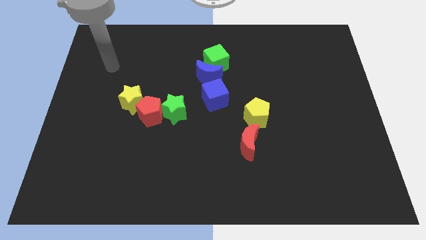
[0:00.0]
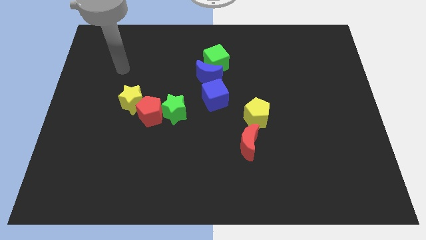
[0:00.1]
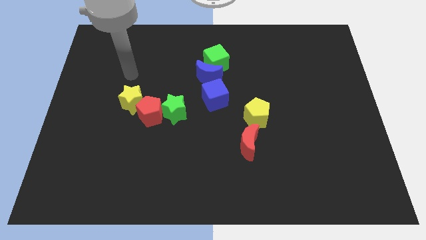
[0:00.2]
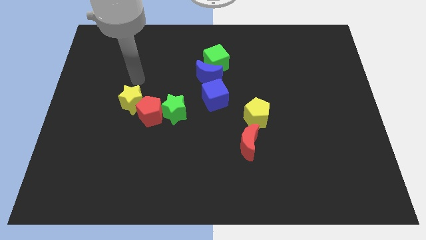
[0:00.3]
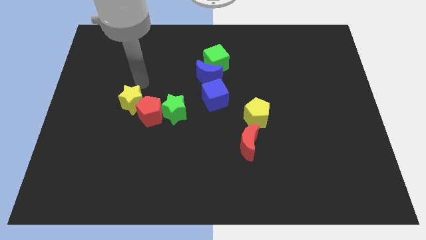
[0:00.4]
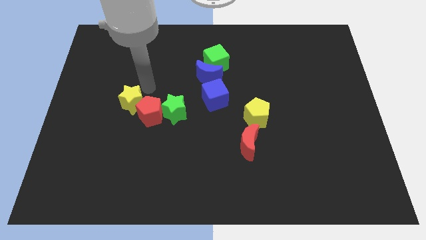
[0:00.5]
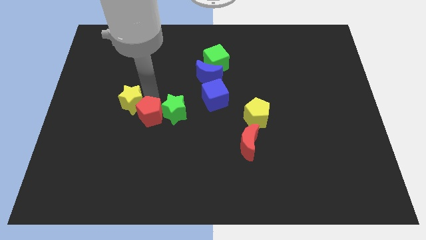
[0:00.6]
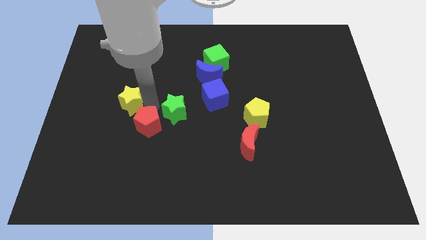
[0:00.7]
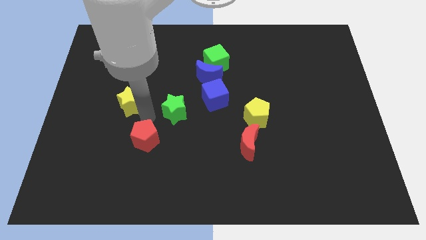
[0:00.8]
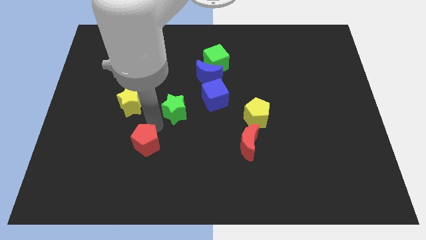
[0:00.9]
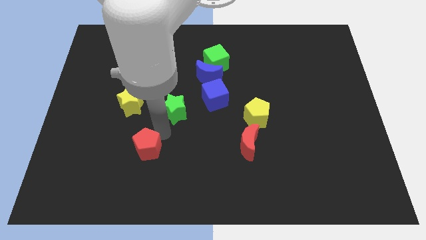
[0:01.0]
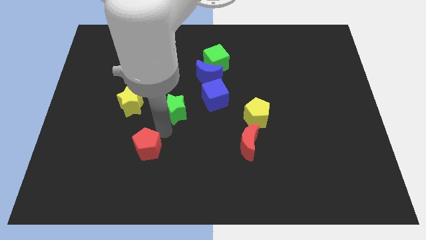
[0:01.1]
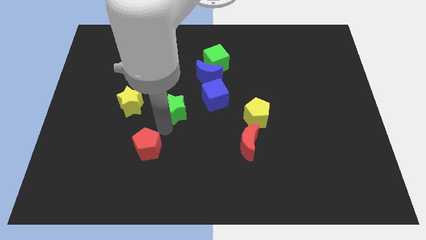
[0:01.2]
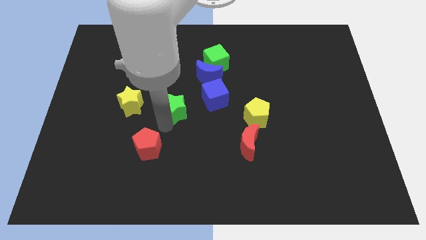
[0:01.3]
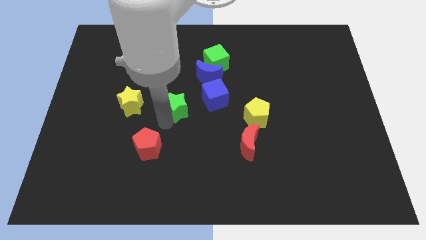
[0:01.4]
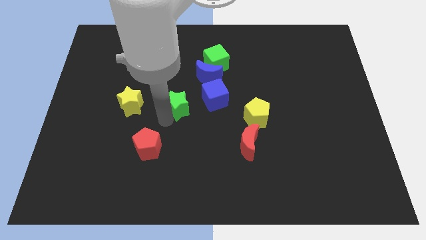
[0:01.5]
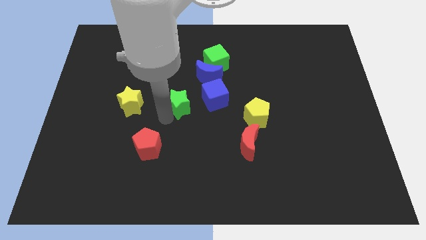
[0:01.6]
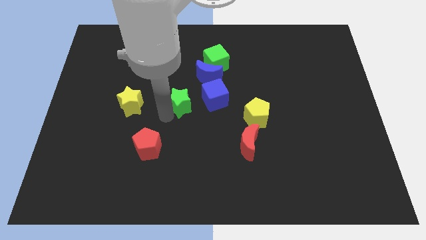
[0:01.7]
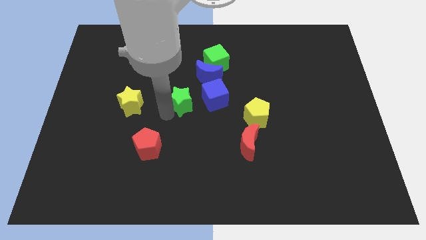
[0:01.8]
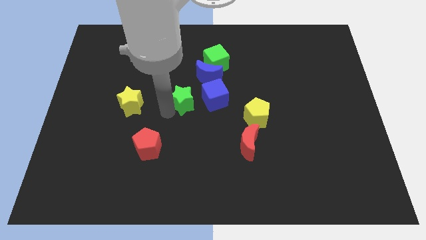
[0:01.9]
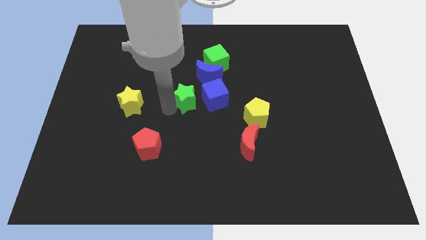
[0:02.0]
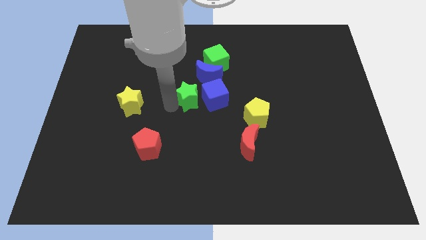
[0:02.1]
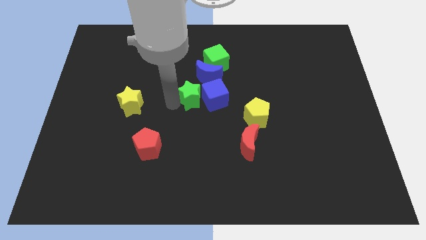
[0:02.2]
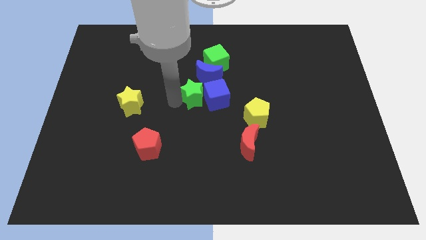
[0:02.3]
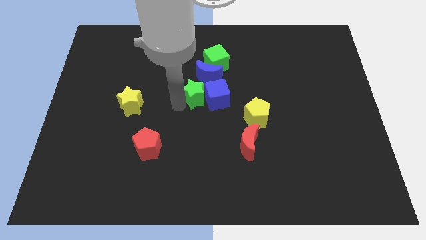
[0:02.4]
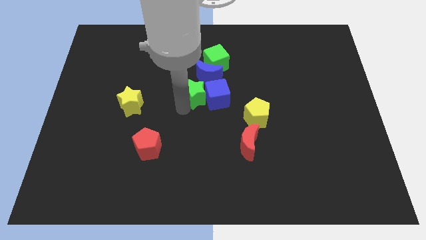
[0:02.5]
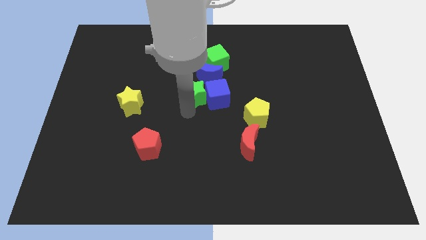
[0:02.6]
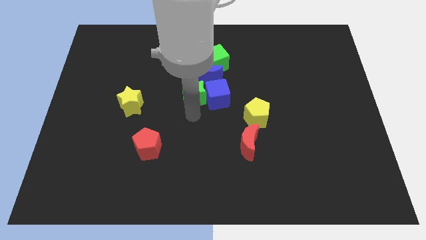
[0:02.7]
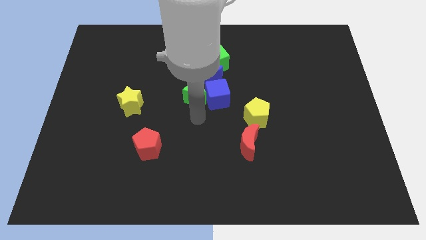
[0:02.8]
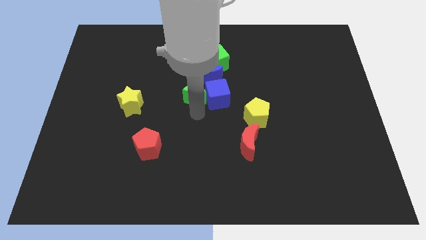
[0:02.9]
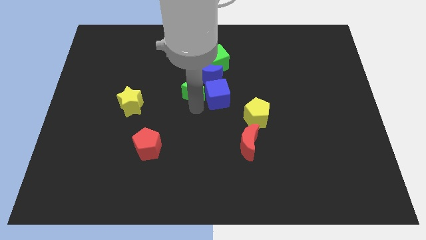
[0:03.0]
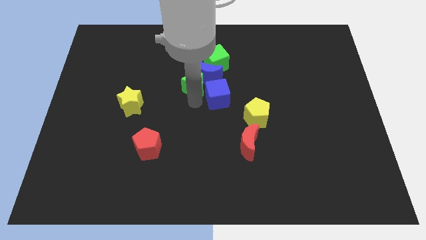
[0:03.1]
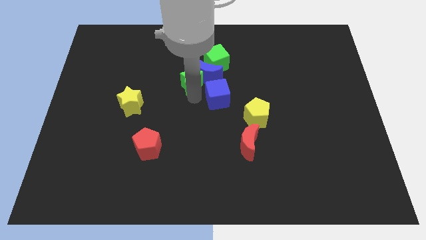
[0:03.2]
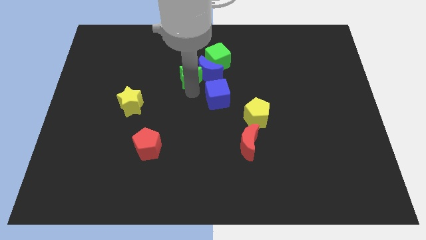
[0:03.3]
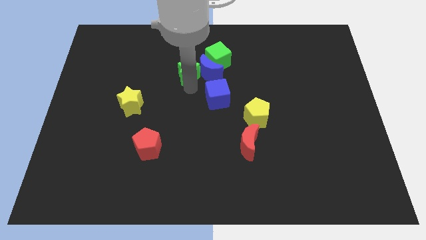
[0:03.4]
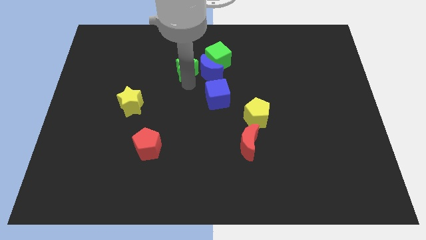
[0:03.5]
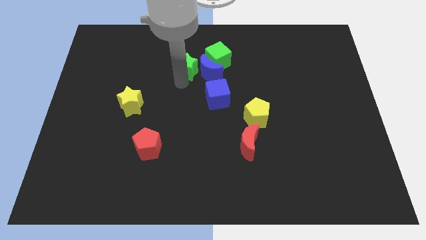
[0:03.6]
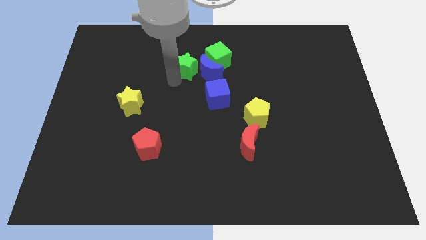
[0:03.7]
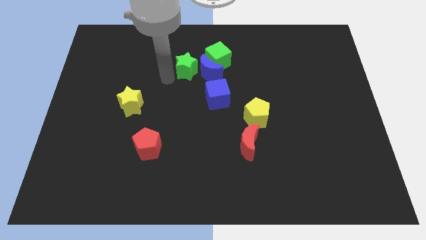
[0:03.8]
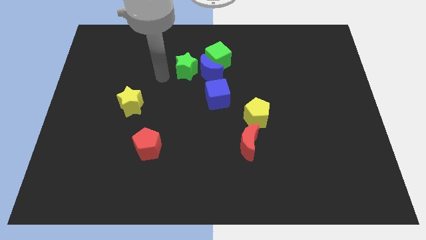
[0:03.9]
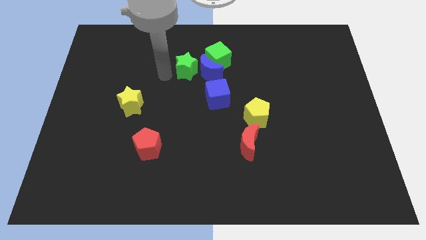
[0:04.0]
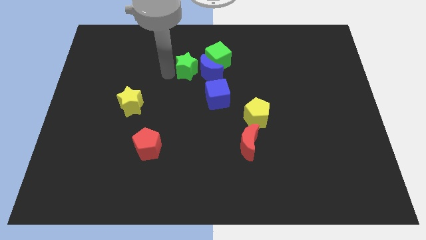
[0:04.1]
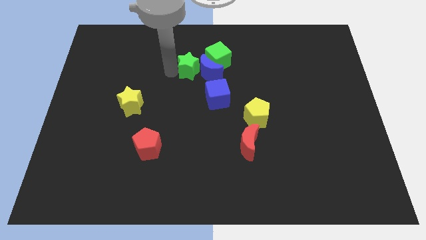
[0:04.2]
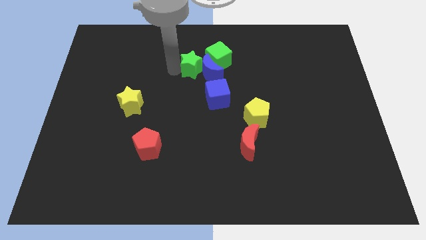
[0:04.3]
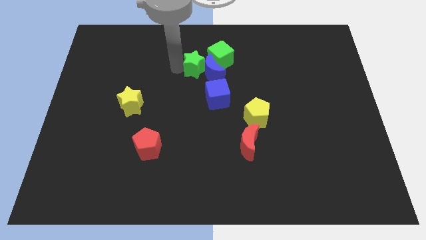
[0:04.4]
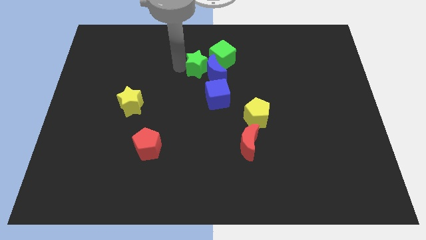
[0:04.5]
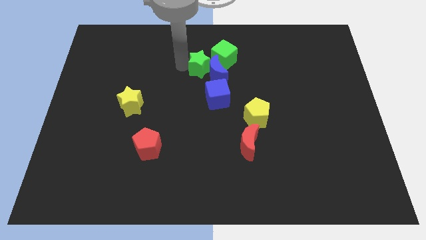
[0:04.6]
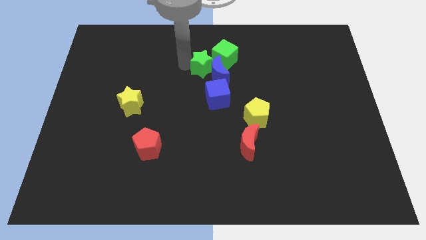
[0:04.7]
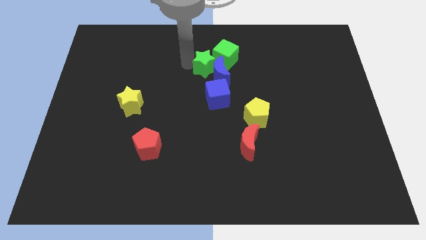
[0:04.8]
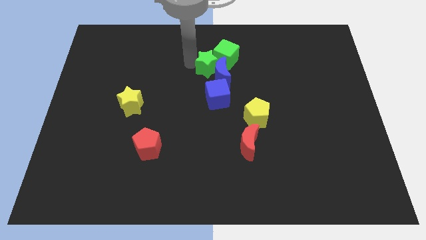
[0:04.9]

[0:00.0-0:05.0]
push the green star next to the green cube

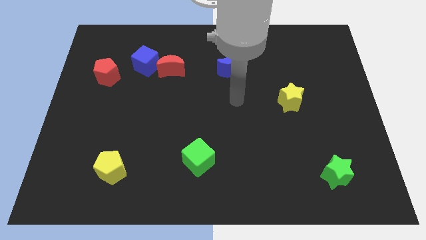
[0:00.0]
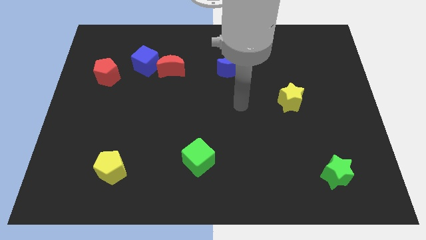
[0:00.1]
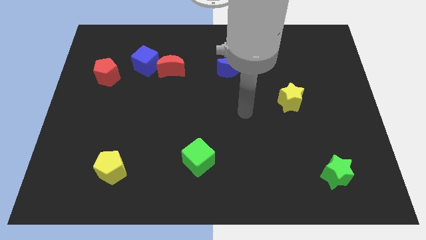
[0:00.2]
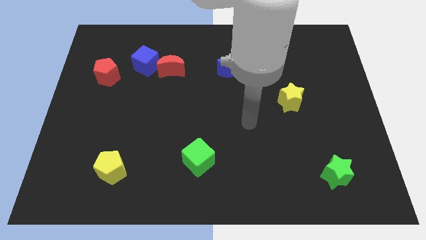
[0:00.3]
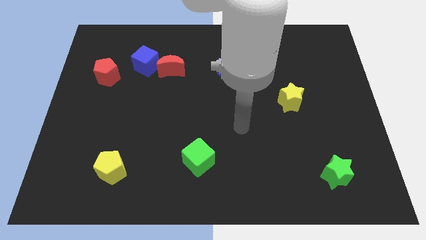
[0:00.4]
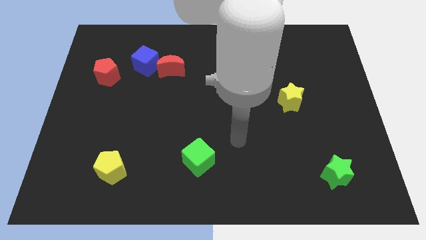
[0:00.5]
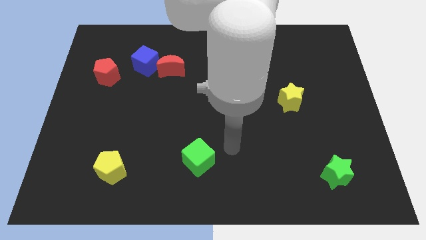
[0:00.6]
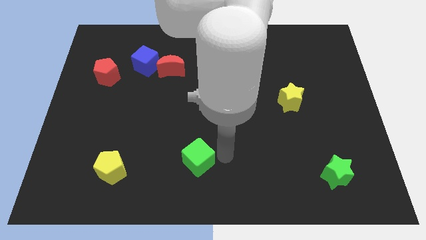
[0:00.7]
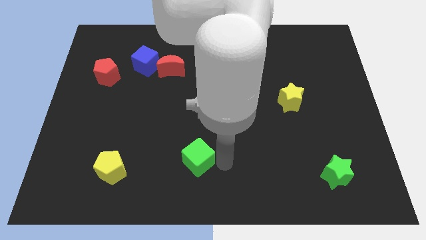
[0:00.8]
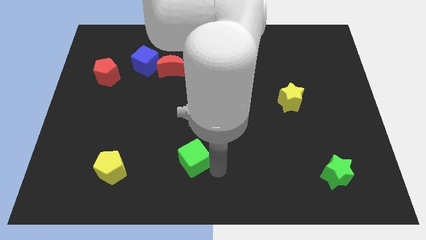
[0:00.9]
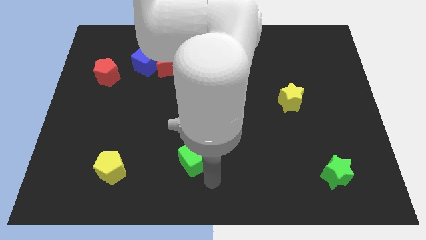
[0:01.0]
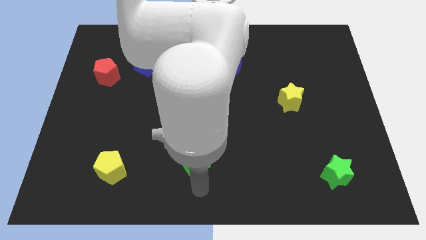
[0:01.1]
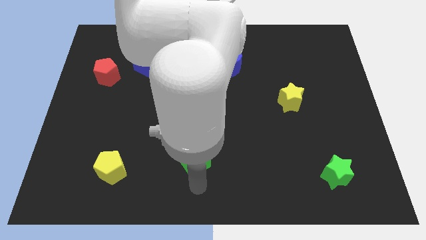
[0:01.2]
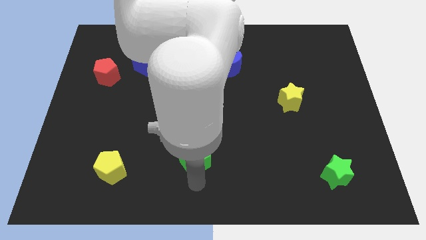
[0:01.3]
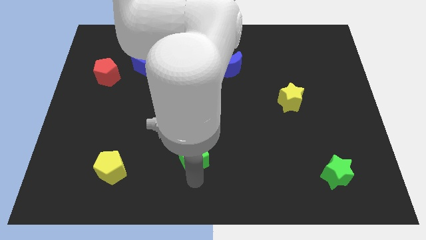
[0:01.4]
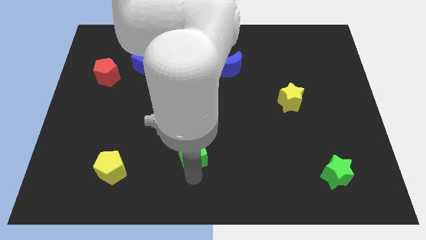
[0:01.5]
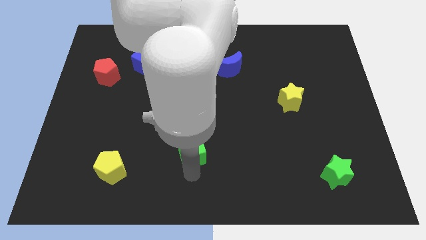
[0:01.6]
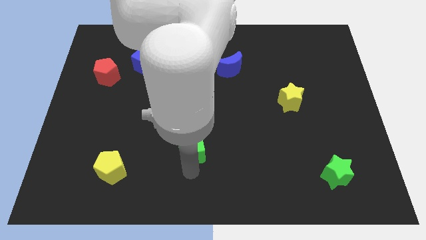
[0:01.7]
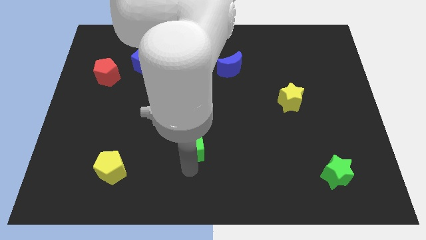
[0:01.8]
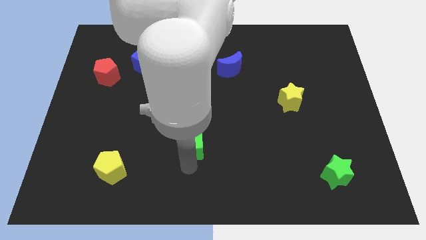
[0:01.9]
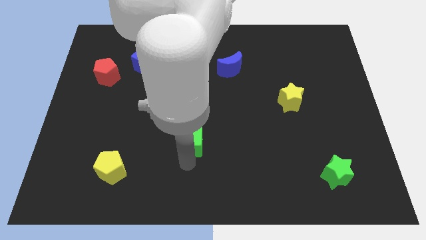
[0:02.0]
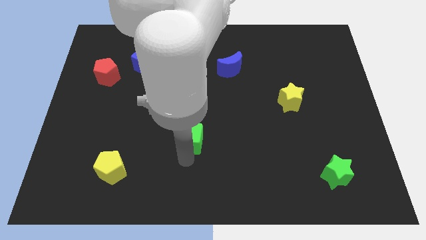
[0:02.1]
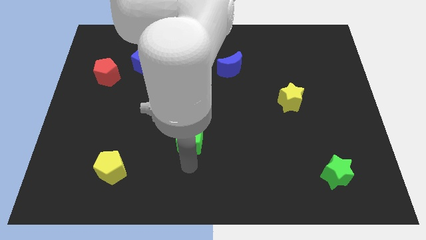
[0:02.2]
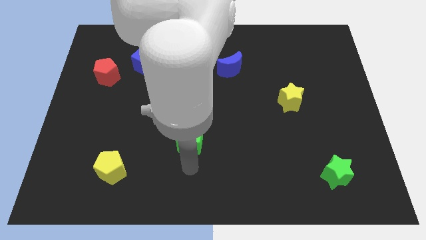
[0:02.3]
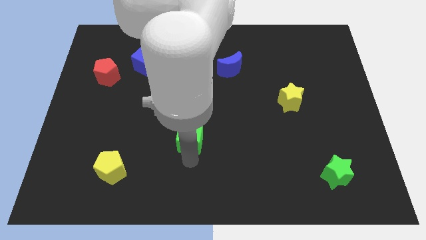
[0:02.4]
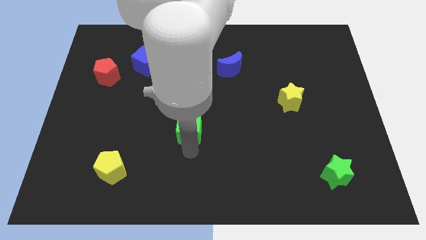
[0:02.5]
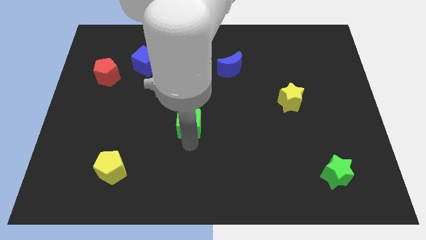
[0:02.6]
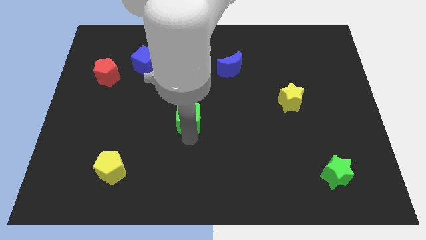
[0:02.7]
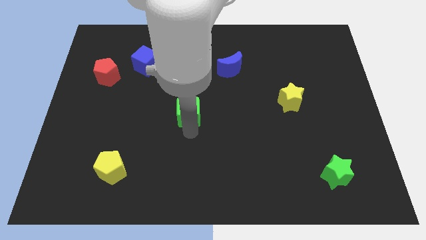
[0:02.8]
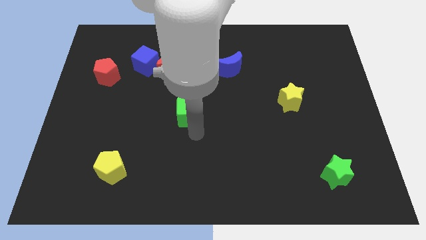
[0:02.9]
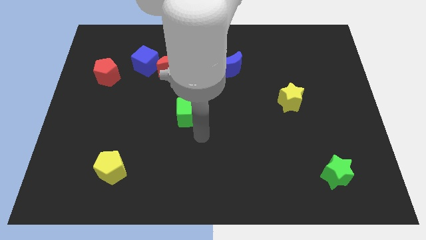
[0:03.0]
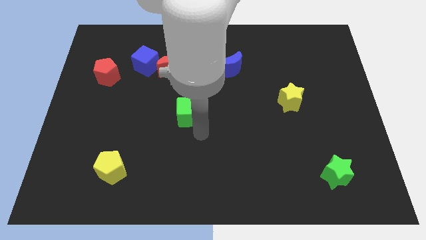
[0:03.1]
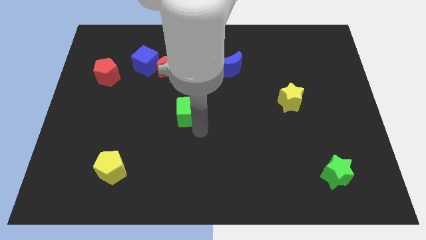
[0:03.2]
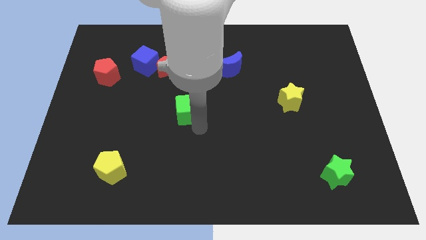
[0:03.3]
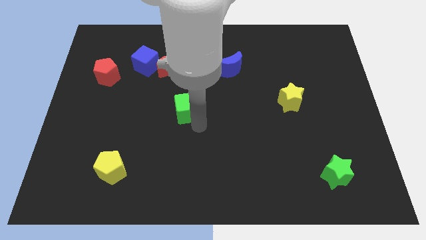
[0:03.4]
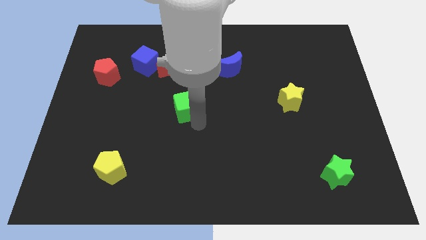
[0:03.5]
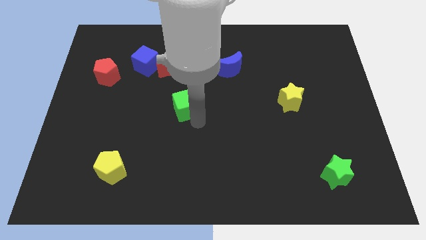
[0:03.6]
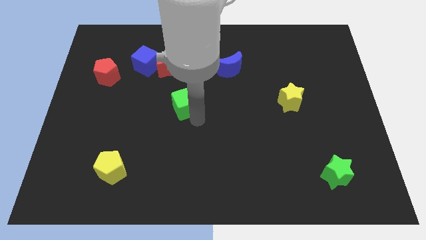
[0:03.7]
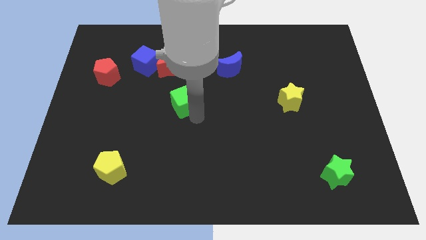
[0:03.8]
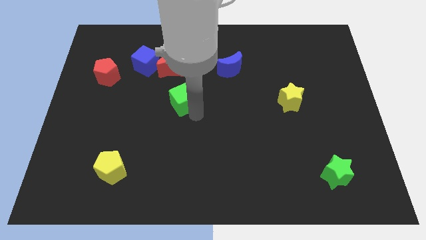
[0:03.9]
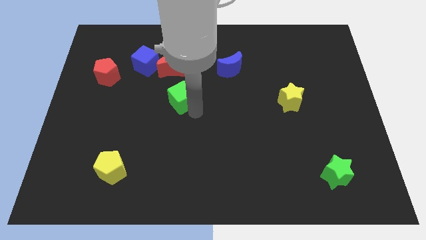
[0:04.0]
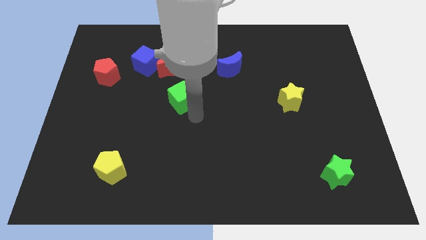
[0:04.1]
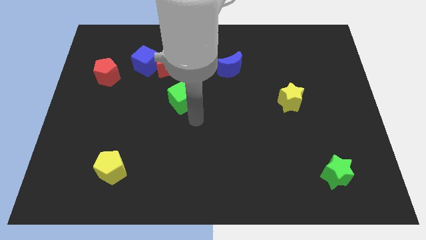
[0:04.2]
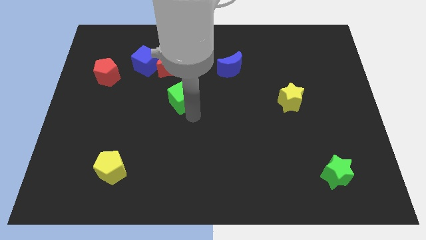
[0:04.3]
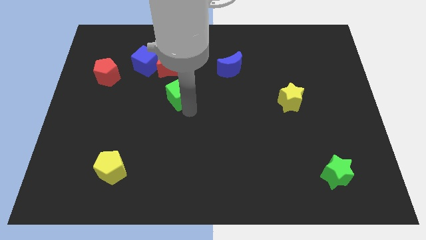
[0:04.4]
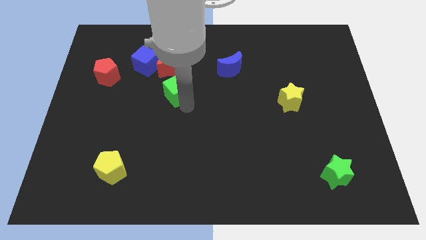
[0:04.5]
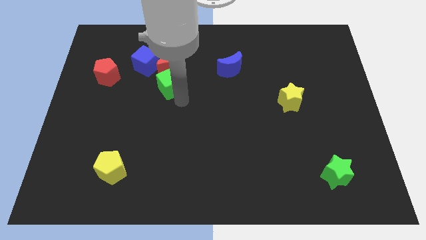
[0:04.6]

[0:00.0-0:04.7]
push the green cube next to the red moon
